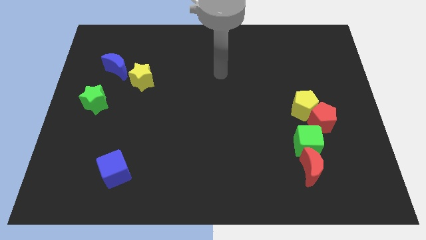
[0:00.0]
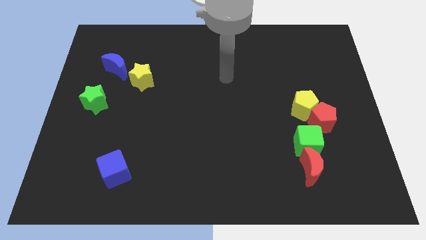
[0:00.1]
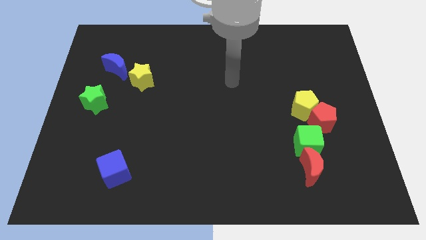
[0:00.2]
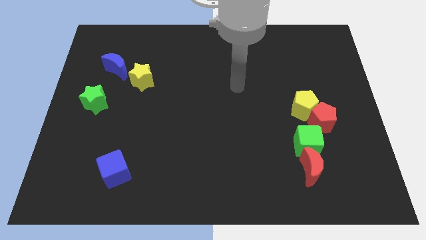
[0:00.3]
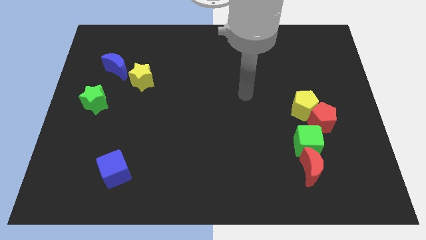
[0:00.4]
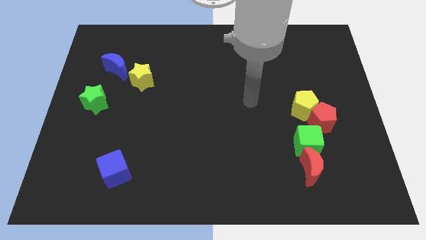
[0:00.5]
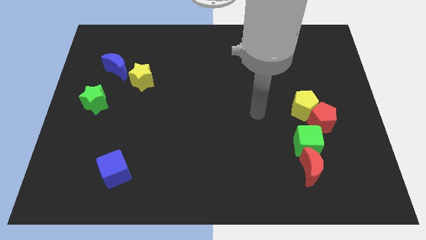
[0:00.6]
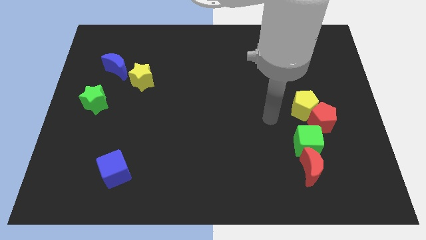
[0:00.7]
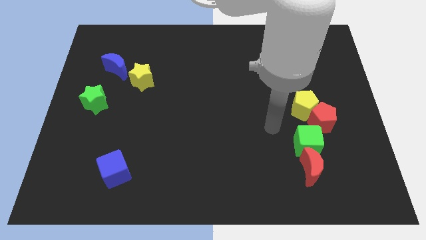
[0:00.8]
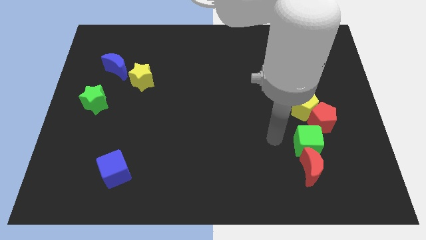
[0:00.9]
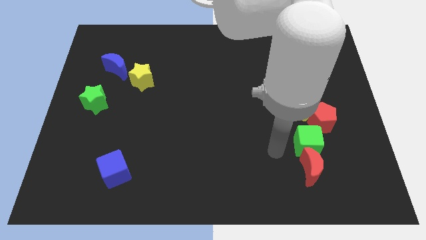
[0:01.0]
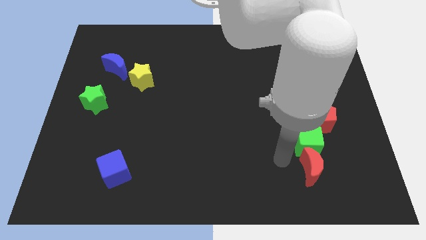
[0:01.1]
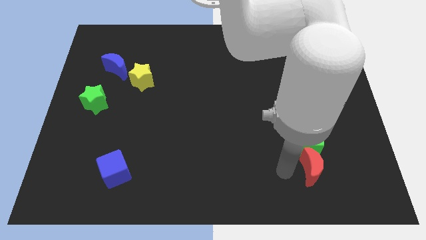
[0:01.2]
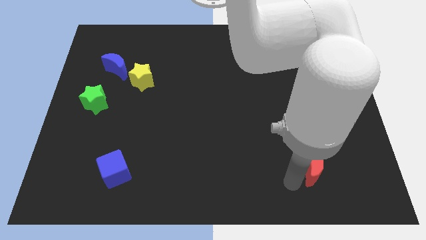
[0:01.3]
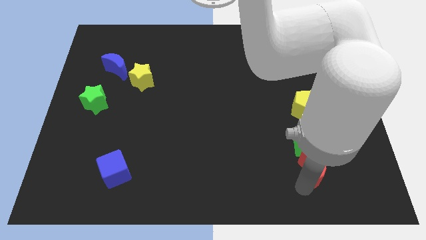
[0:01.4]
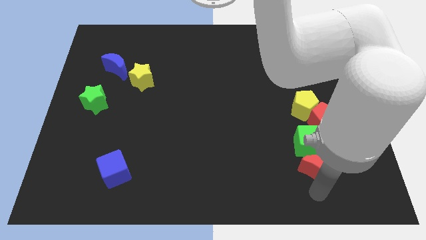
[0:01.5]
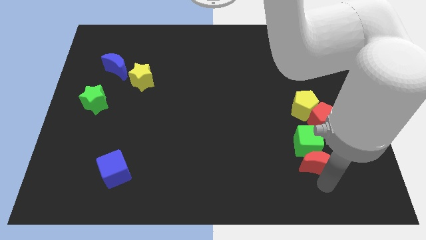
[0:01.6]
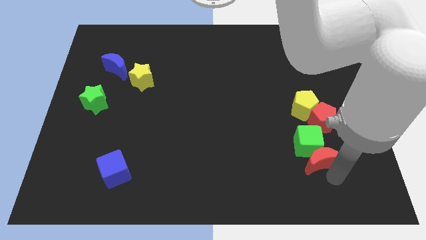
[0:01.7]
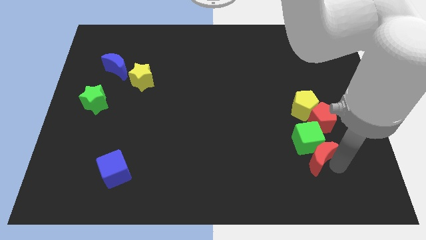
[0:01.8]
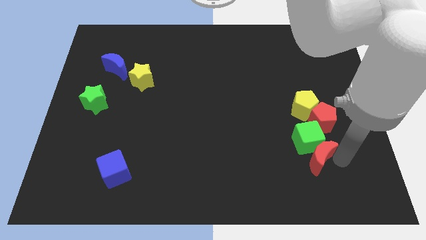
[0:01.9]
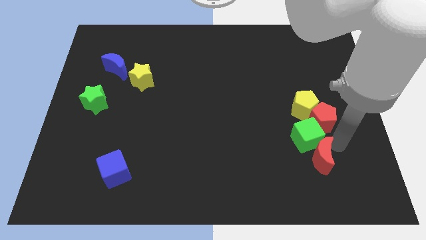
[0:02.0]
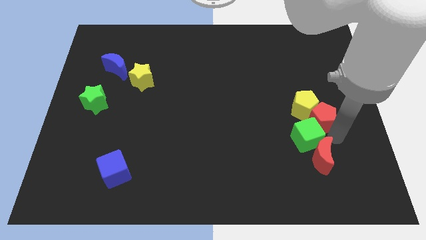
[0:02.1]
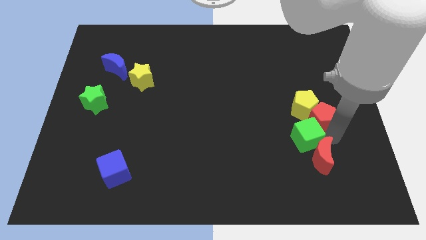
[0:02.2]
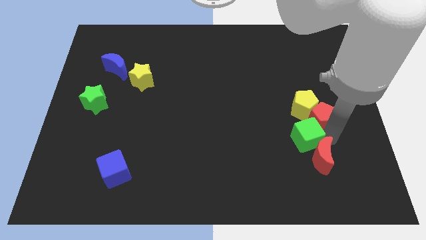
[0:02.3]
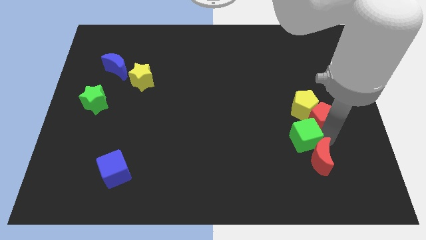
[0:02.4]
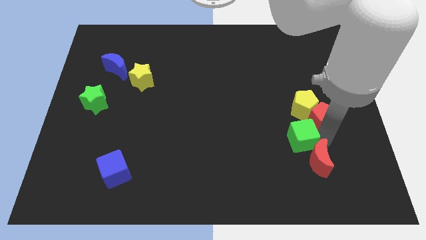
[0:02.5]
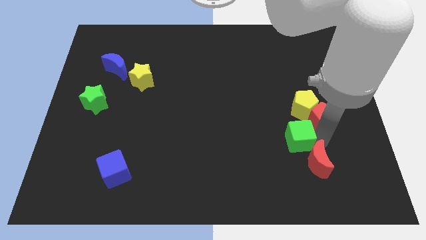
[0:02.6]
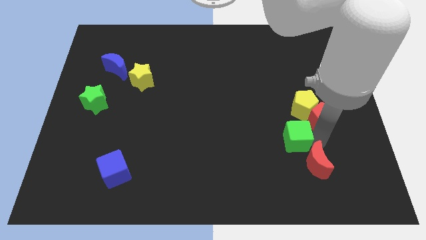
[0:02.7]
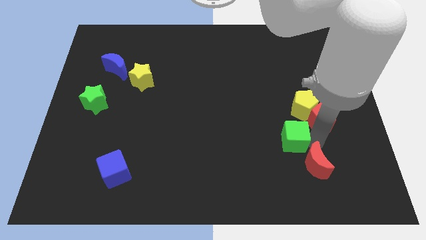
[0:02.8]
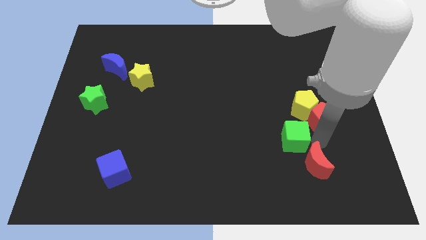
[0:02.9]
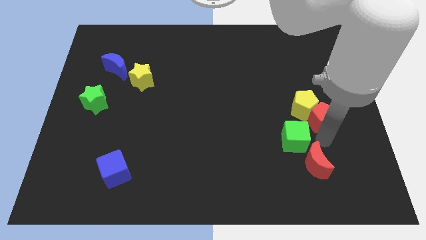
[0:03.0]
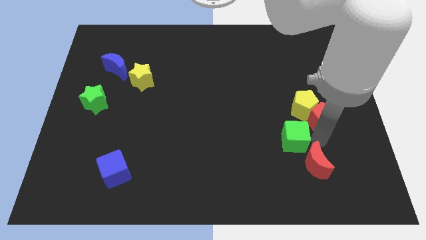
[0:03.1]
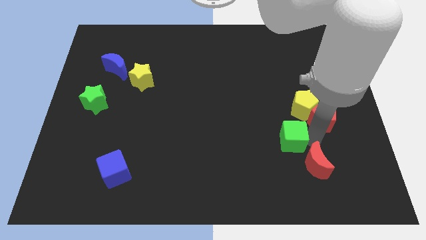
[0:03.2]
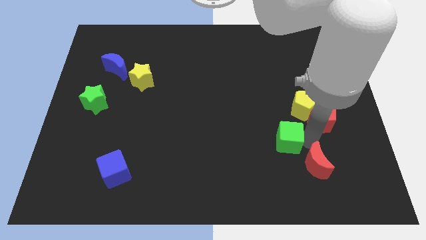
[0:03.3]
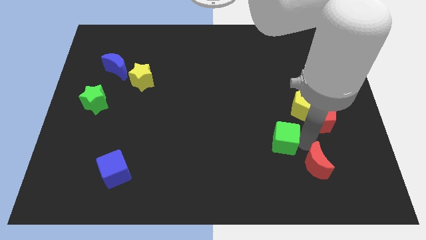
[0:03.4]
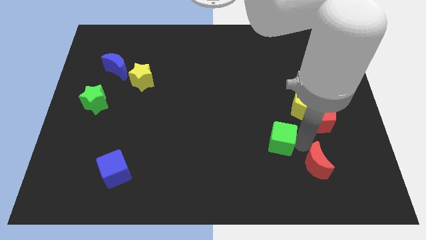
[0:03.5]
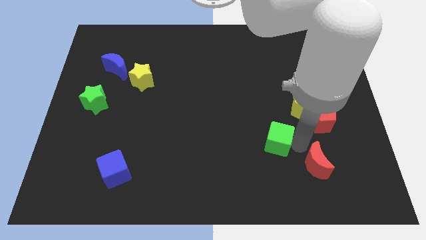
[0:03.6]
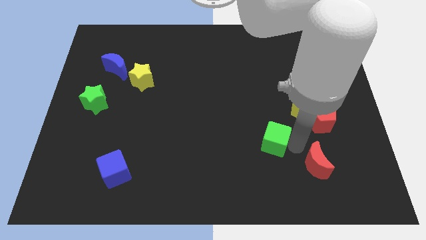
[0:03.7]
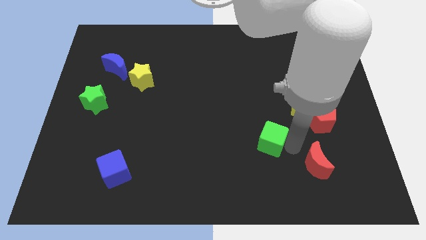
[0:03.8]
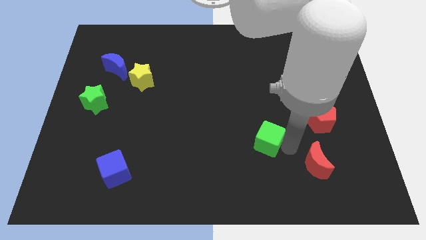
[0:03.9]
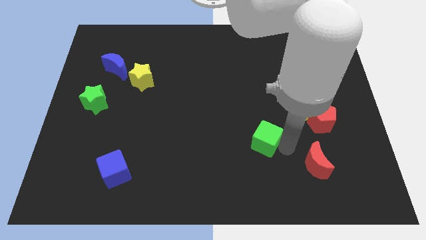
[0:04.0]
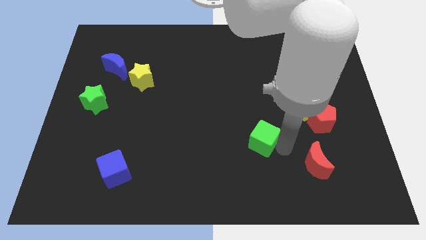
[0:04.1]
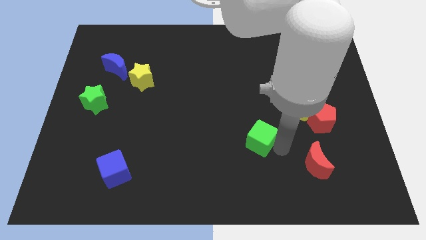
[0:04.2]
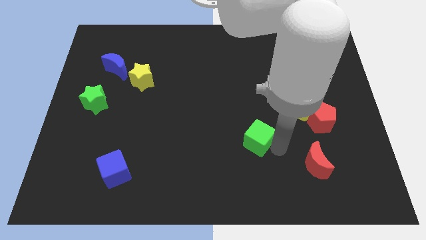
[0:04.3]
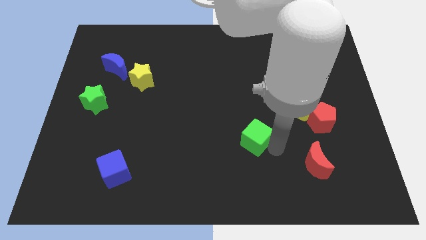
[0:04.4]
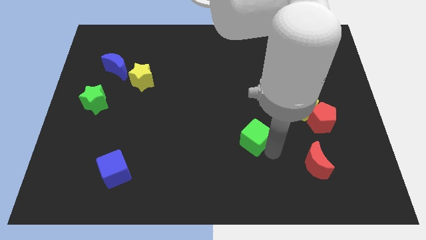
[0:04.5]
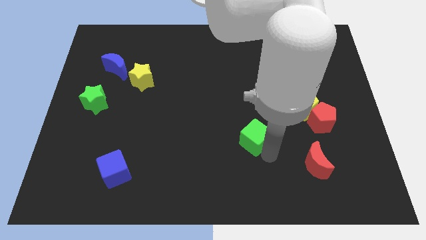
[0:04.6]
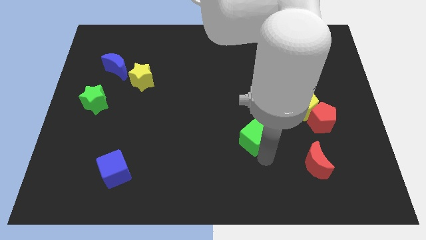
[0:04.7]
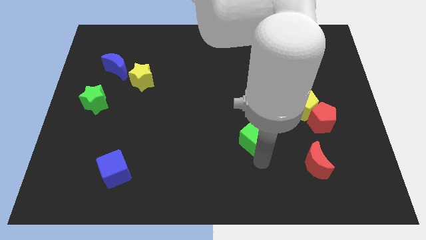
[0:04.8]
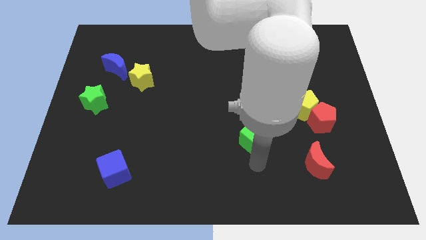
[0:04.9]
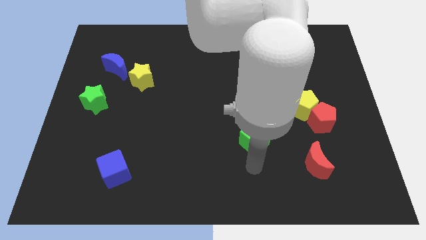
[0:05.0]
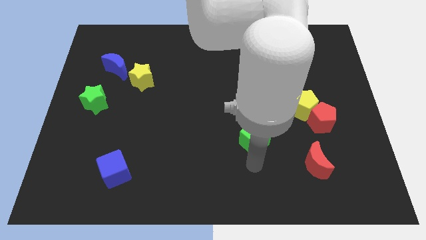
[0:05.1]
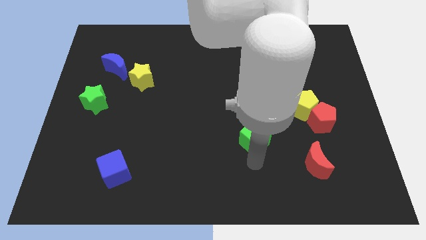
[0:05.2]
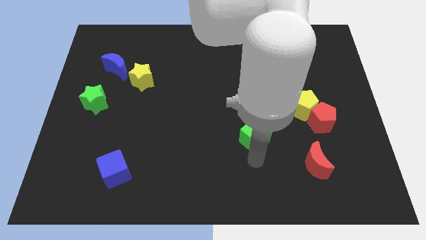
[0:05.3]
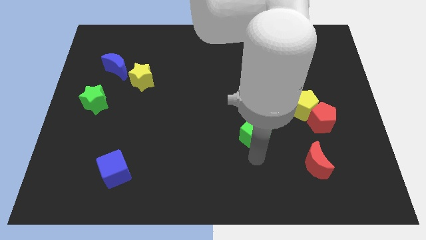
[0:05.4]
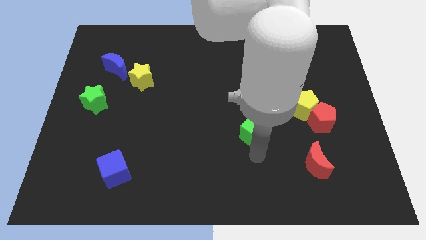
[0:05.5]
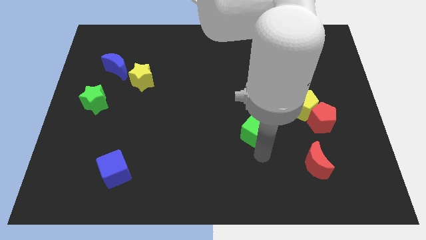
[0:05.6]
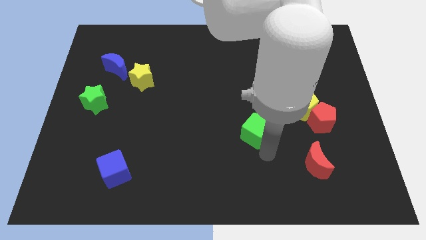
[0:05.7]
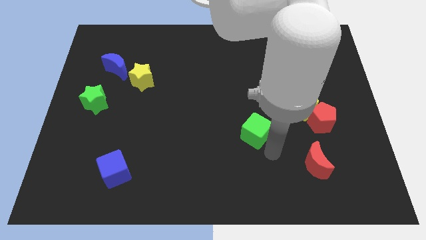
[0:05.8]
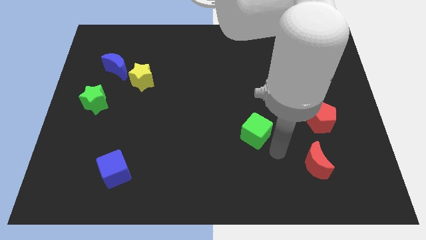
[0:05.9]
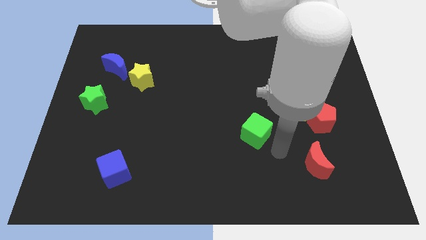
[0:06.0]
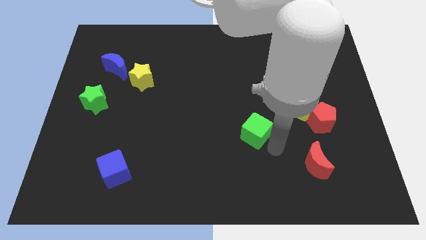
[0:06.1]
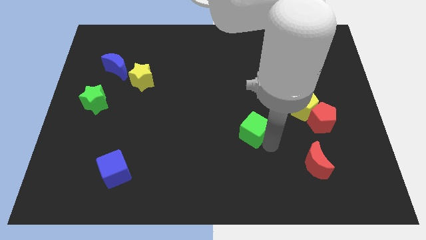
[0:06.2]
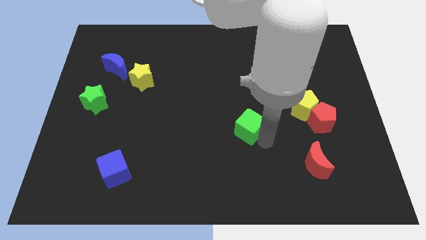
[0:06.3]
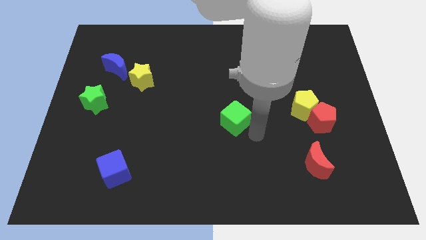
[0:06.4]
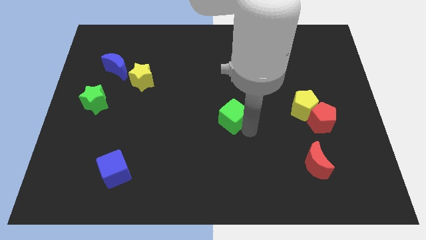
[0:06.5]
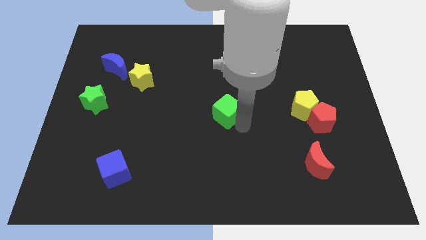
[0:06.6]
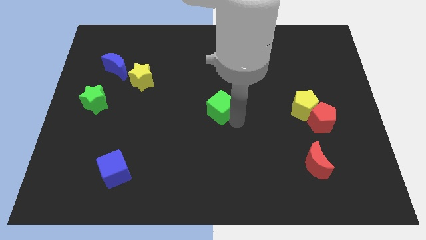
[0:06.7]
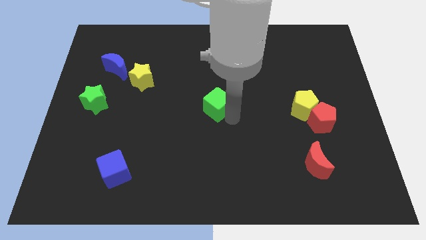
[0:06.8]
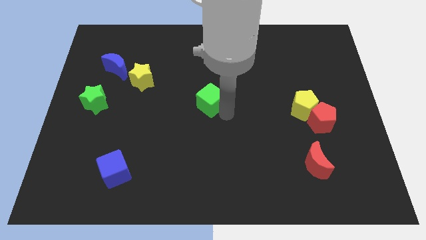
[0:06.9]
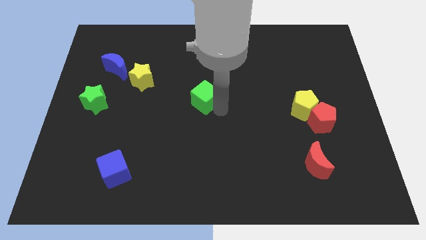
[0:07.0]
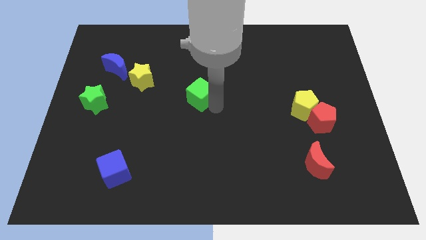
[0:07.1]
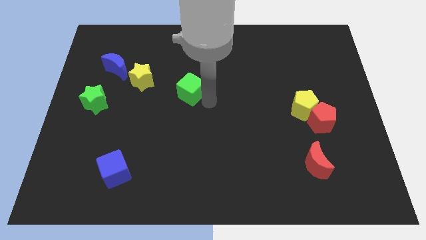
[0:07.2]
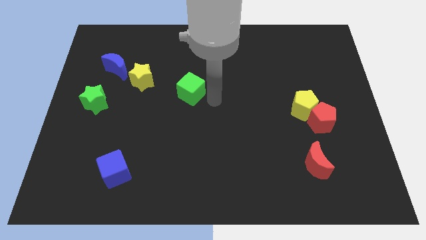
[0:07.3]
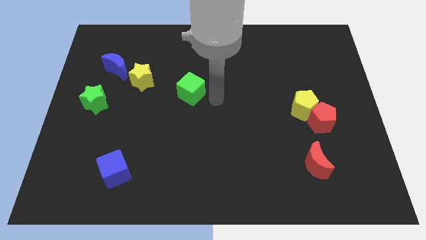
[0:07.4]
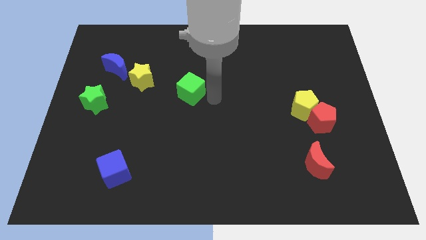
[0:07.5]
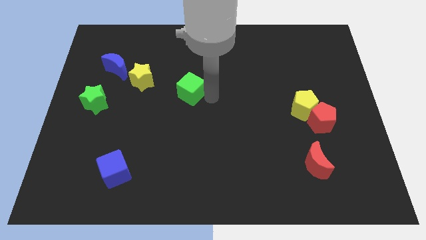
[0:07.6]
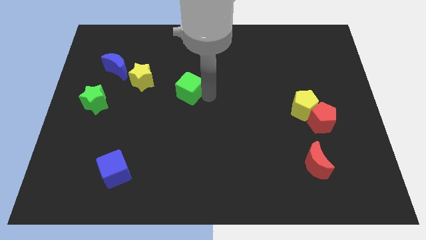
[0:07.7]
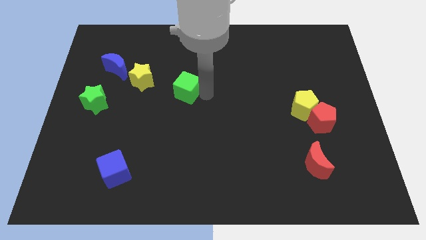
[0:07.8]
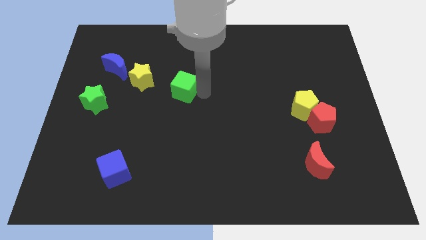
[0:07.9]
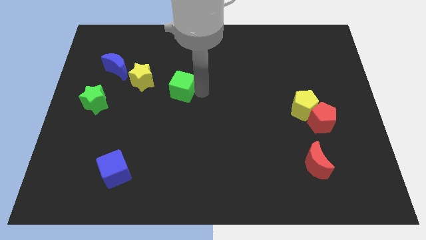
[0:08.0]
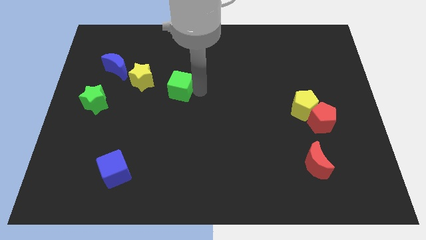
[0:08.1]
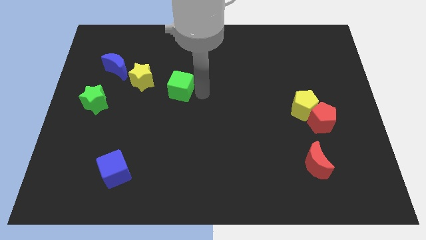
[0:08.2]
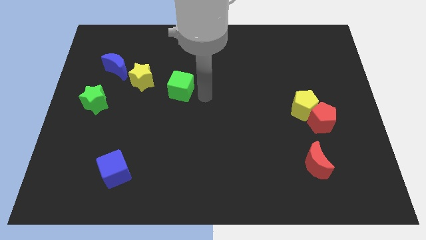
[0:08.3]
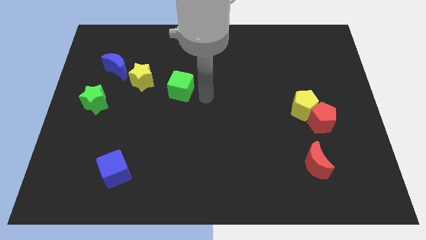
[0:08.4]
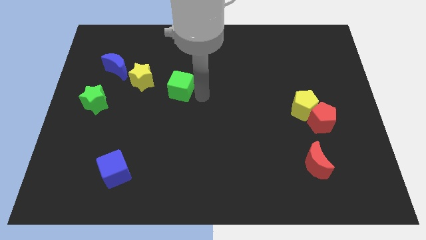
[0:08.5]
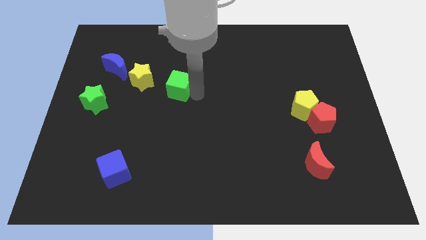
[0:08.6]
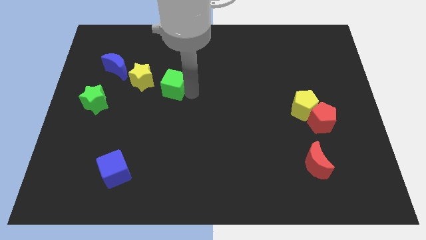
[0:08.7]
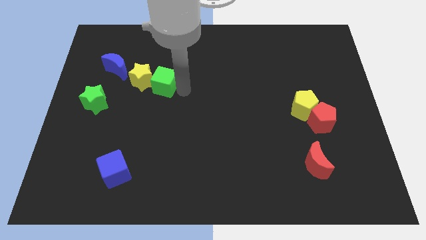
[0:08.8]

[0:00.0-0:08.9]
slide the green cube towards the yellow star
